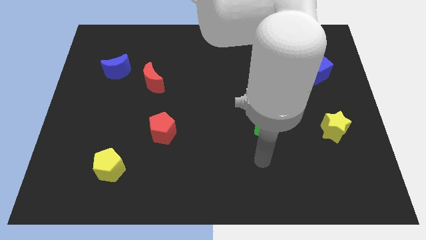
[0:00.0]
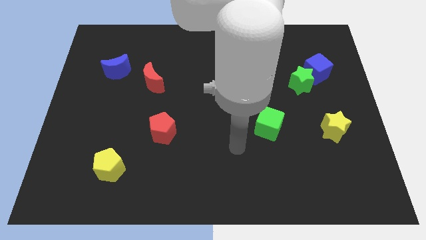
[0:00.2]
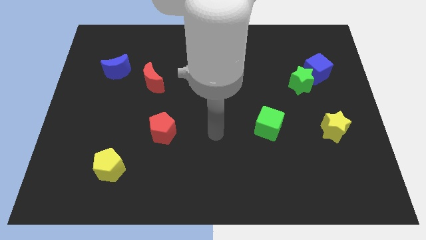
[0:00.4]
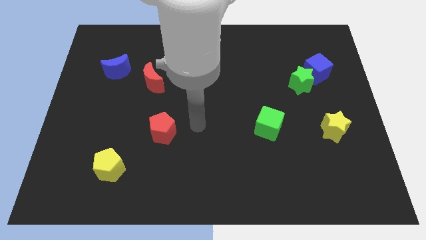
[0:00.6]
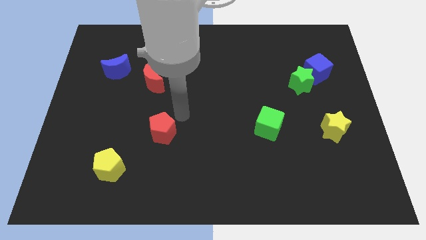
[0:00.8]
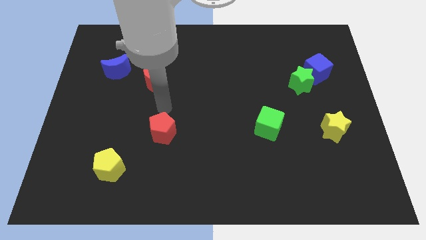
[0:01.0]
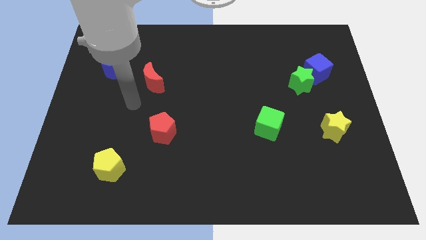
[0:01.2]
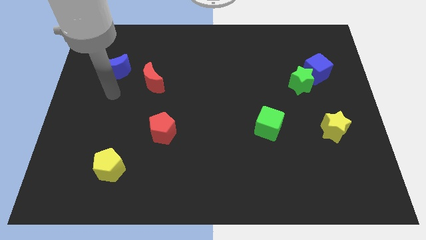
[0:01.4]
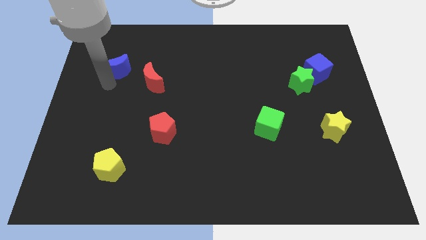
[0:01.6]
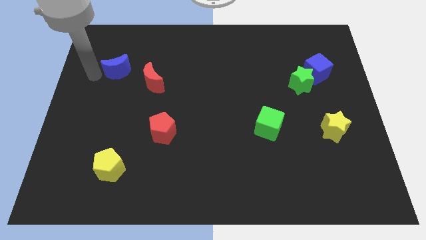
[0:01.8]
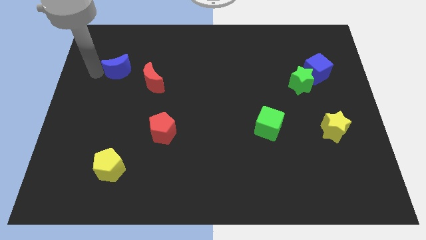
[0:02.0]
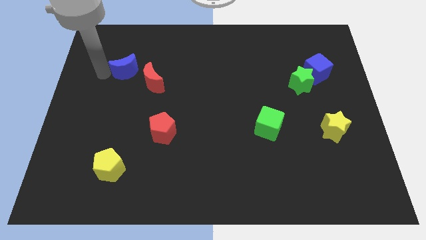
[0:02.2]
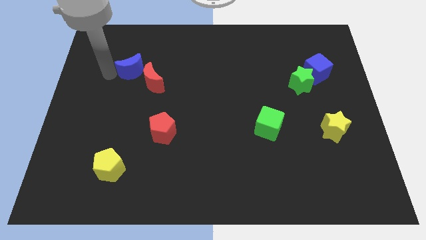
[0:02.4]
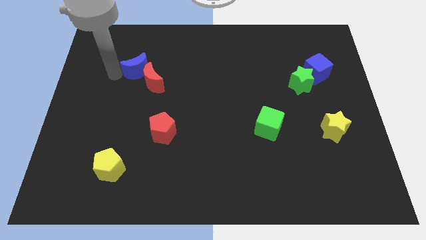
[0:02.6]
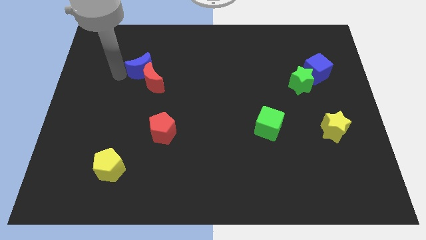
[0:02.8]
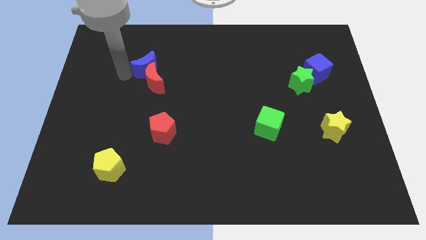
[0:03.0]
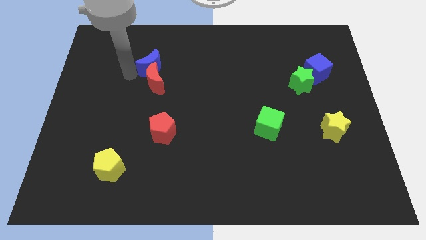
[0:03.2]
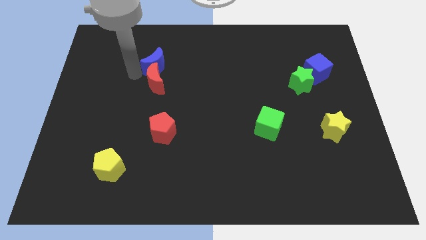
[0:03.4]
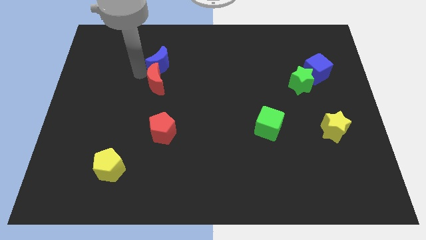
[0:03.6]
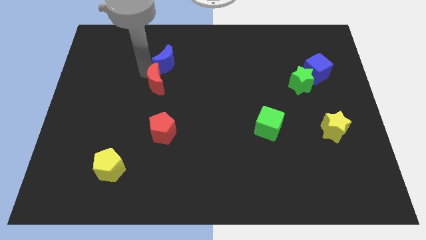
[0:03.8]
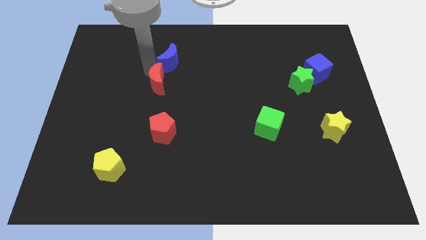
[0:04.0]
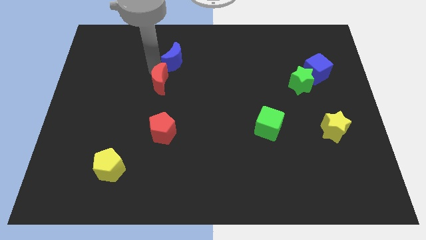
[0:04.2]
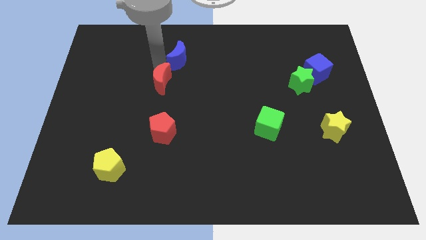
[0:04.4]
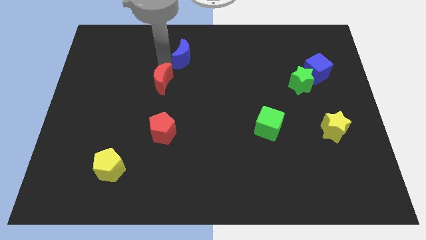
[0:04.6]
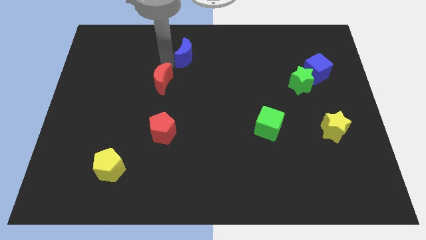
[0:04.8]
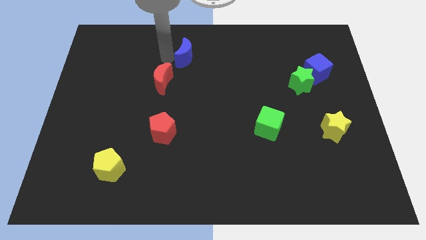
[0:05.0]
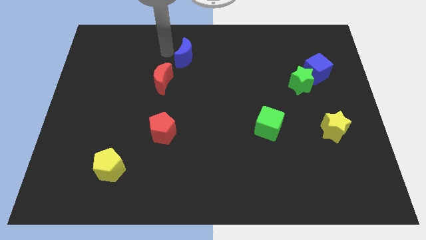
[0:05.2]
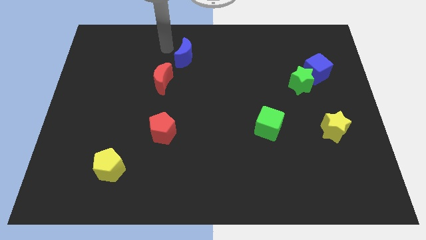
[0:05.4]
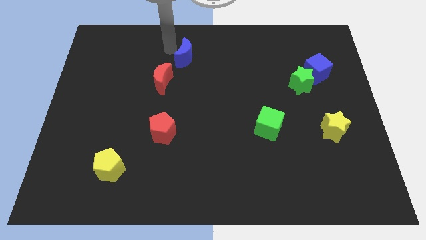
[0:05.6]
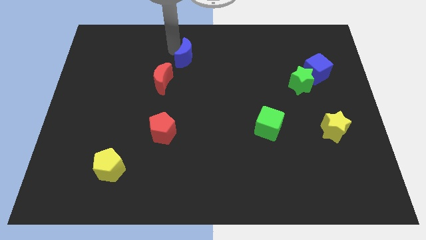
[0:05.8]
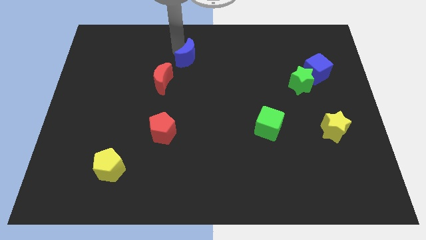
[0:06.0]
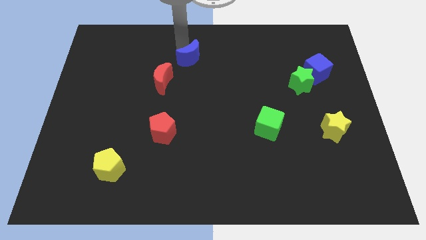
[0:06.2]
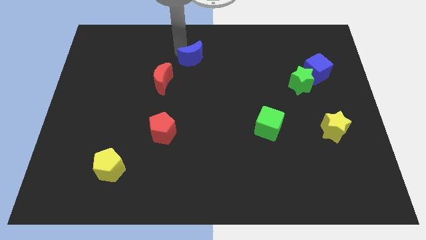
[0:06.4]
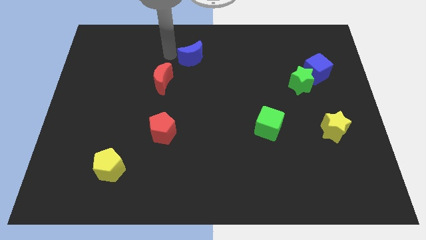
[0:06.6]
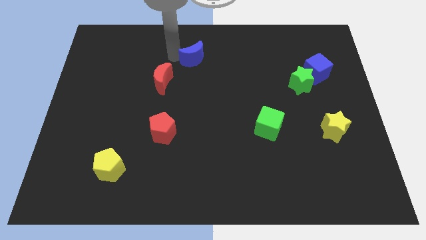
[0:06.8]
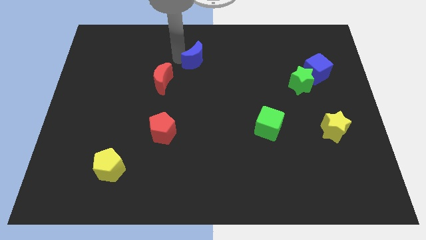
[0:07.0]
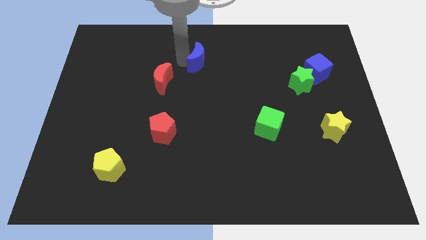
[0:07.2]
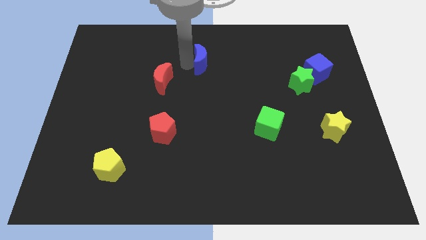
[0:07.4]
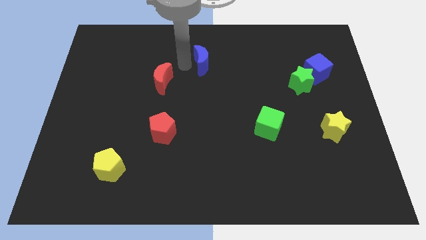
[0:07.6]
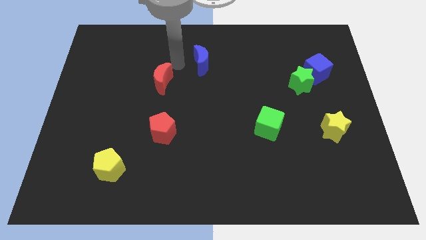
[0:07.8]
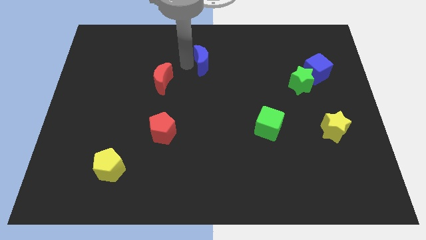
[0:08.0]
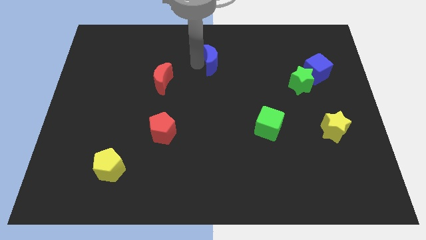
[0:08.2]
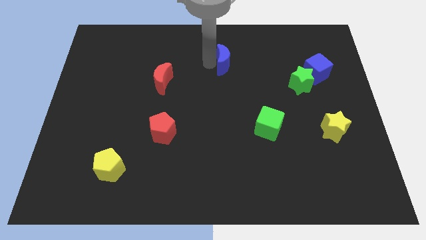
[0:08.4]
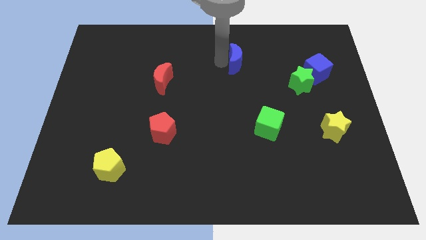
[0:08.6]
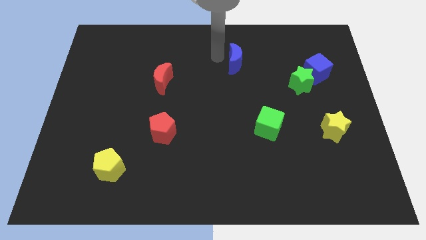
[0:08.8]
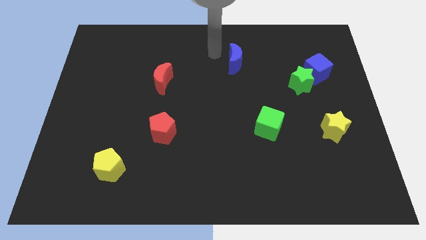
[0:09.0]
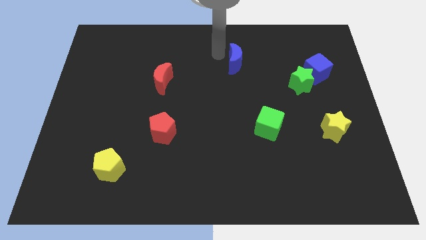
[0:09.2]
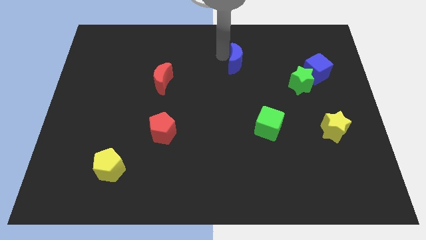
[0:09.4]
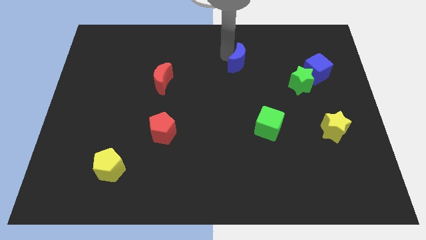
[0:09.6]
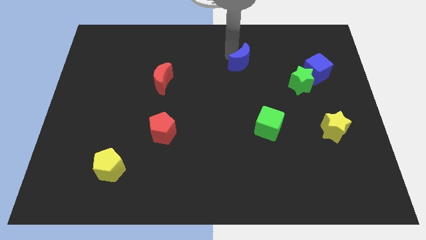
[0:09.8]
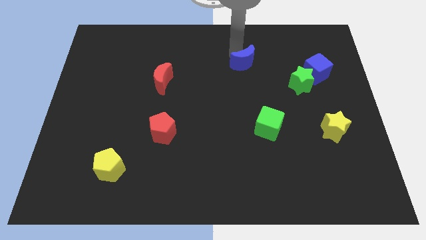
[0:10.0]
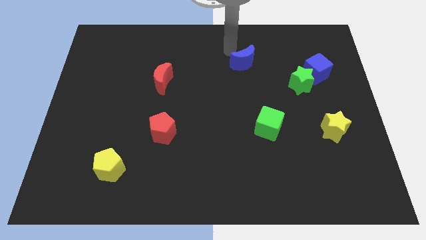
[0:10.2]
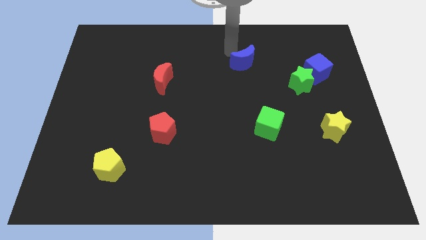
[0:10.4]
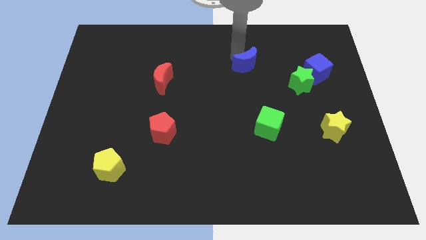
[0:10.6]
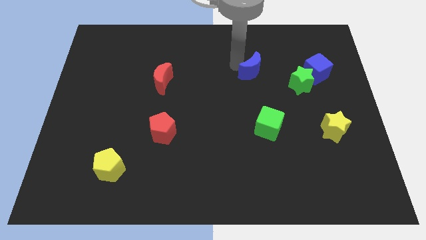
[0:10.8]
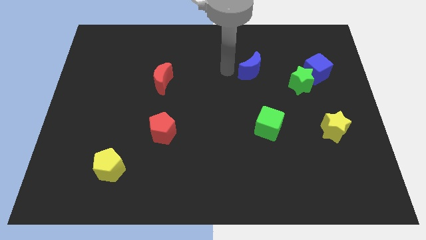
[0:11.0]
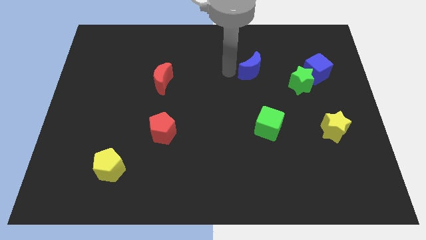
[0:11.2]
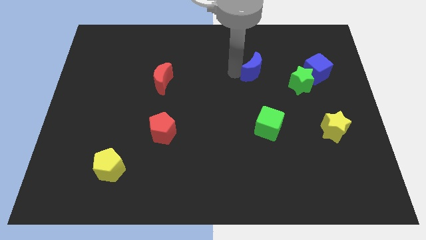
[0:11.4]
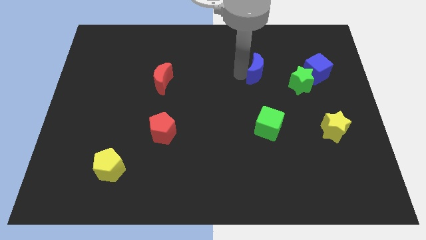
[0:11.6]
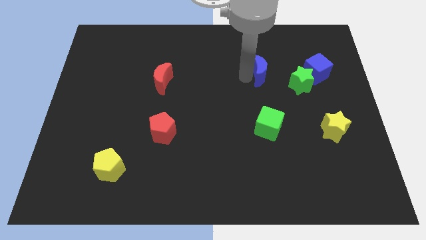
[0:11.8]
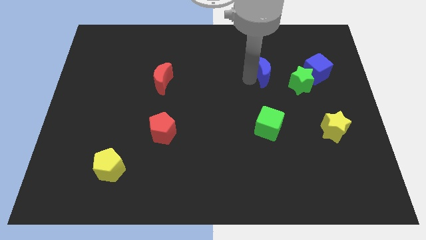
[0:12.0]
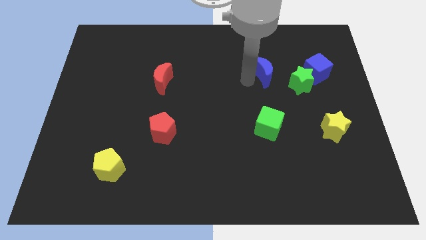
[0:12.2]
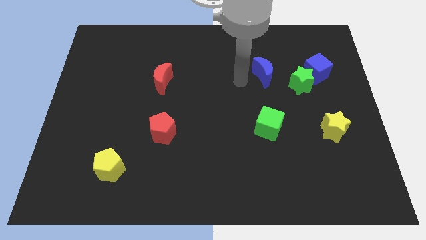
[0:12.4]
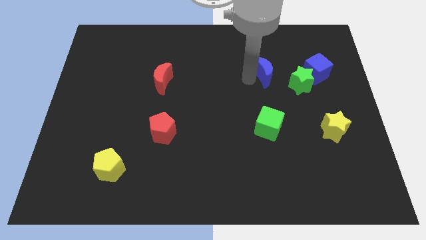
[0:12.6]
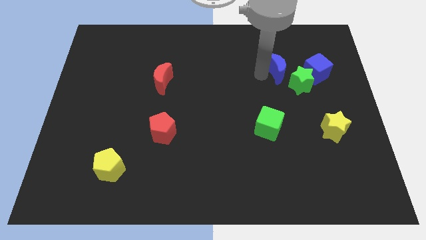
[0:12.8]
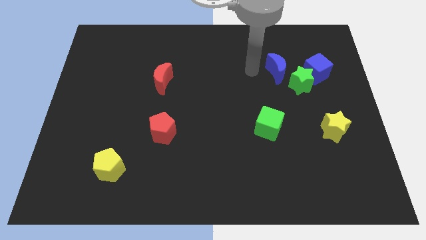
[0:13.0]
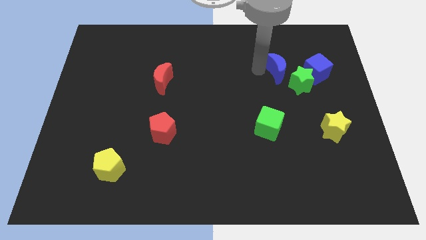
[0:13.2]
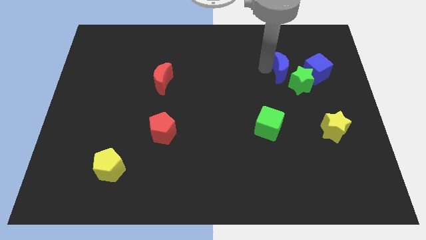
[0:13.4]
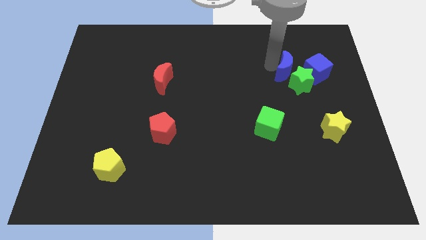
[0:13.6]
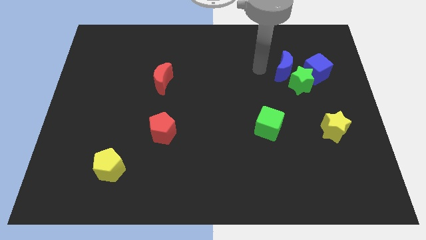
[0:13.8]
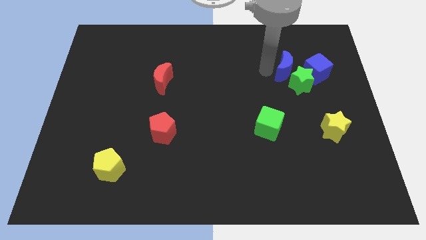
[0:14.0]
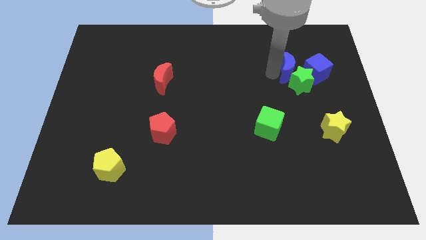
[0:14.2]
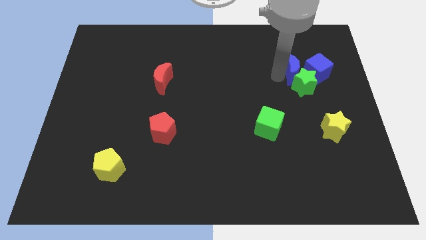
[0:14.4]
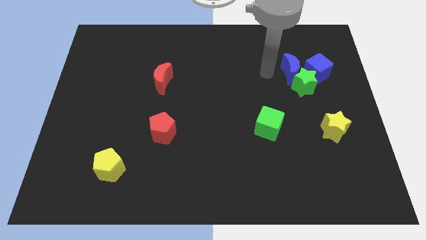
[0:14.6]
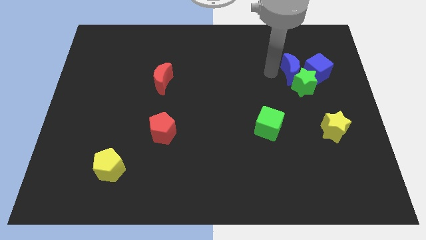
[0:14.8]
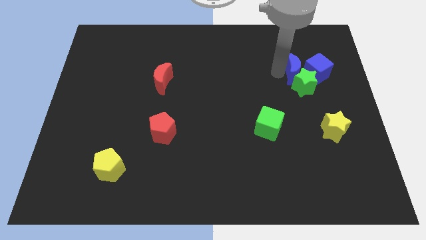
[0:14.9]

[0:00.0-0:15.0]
move the blue moon close to the blue cube

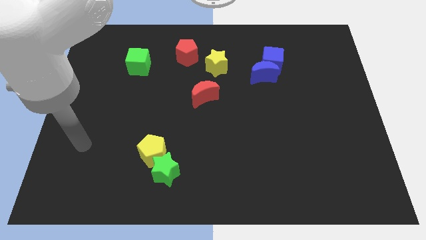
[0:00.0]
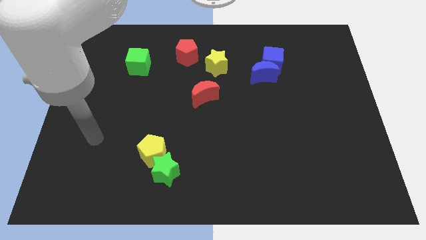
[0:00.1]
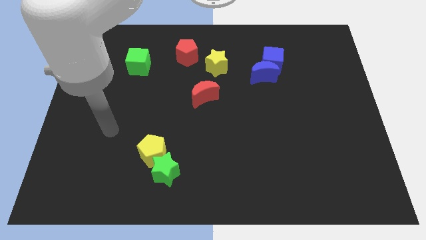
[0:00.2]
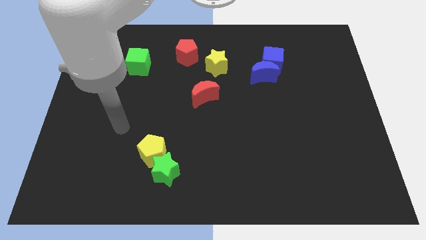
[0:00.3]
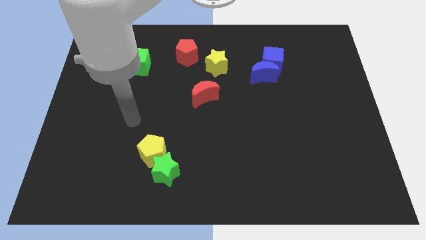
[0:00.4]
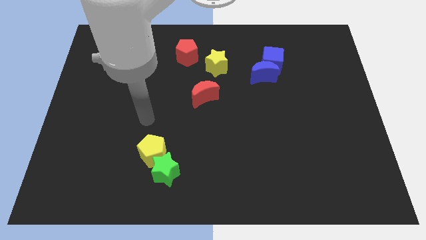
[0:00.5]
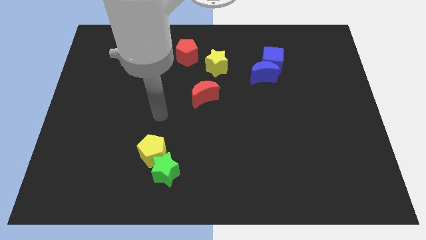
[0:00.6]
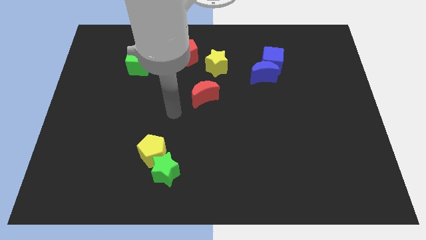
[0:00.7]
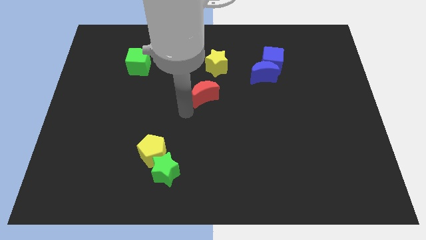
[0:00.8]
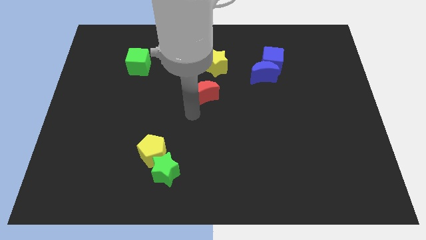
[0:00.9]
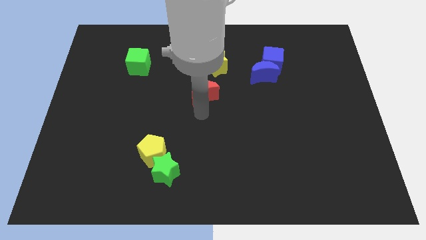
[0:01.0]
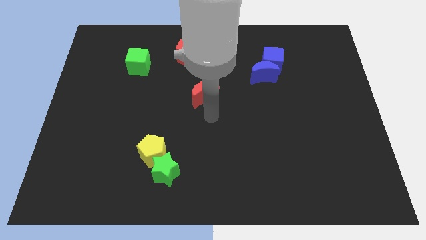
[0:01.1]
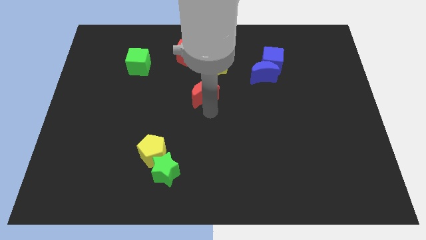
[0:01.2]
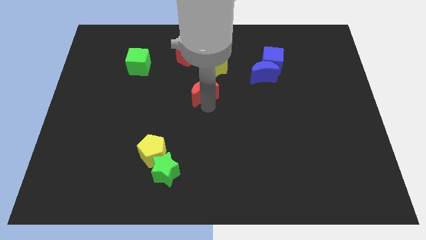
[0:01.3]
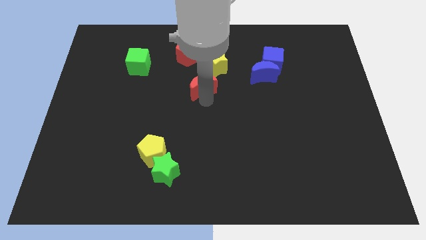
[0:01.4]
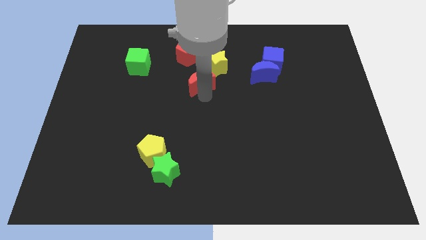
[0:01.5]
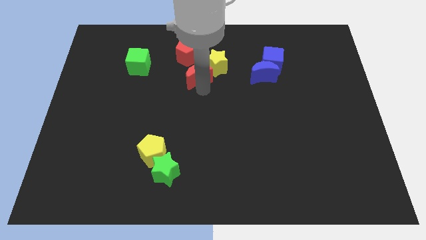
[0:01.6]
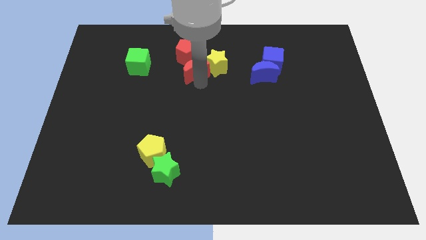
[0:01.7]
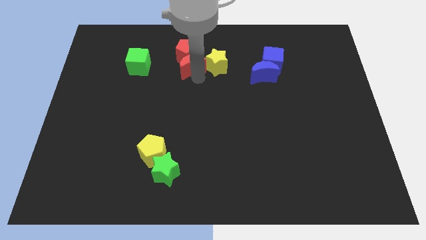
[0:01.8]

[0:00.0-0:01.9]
push the red moon next to the red pentagon
